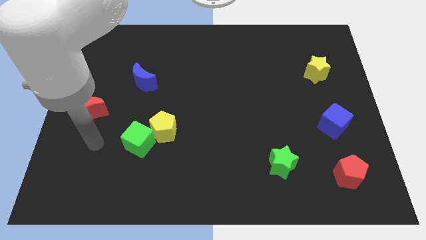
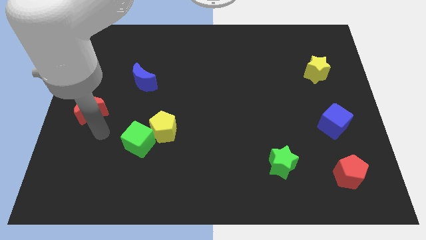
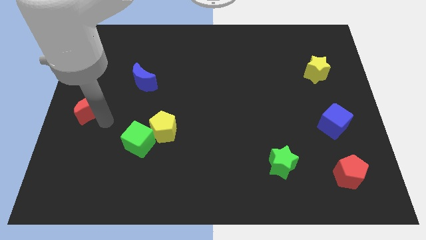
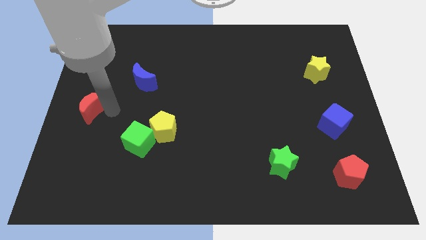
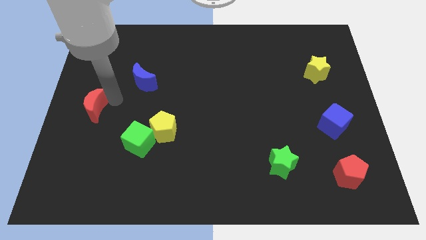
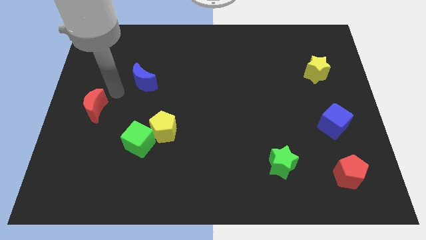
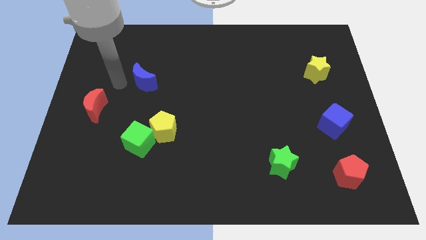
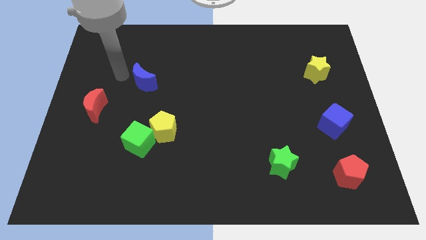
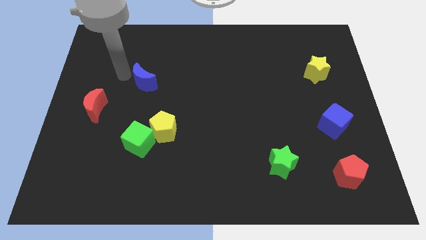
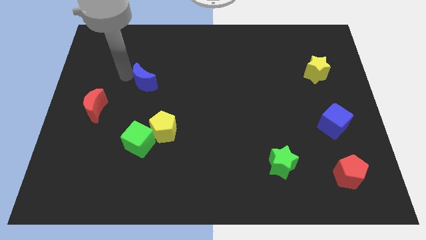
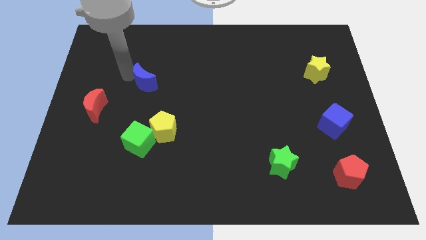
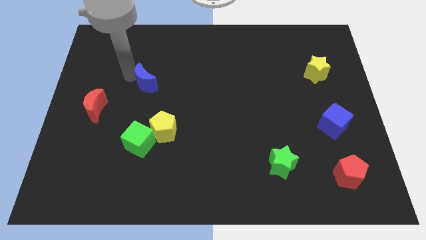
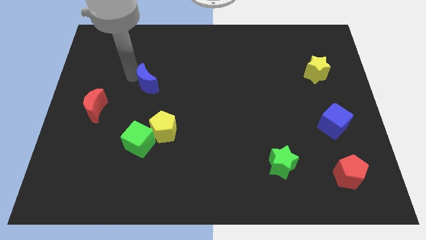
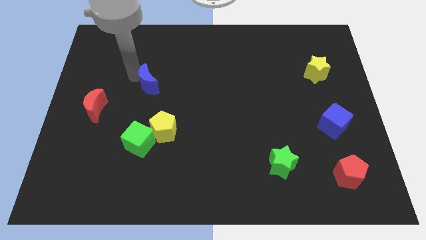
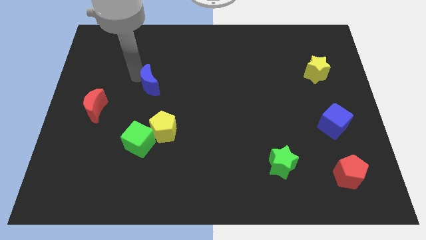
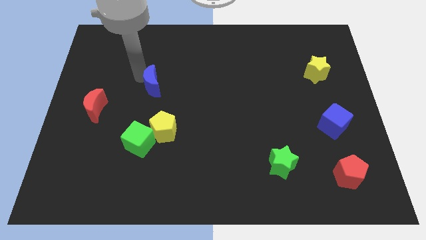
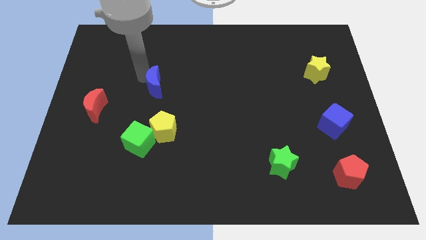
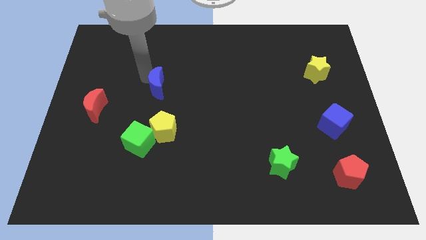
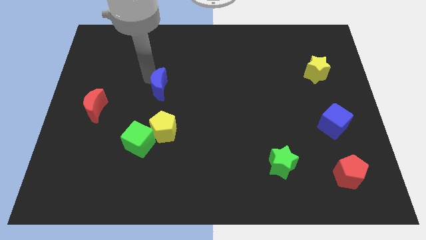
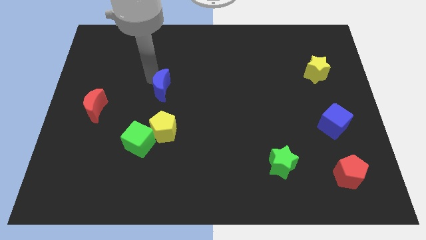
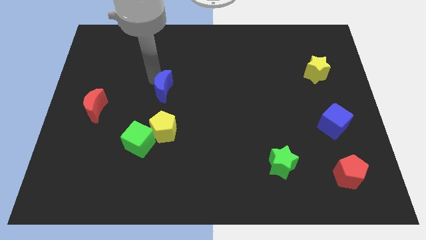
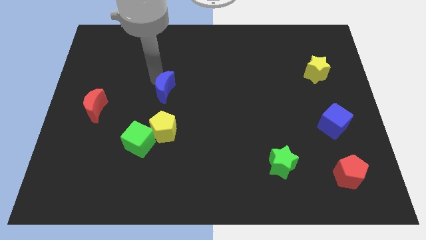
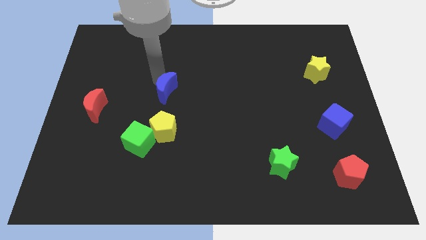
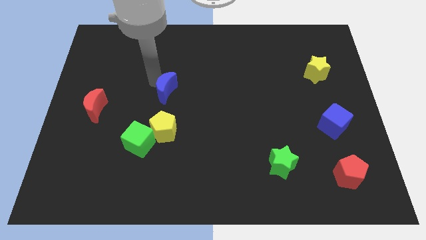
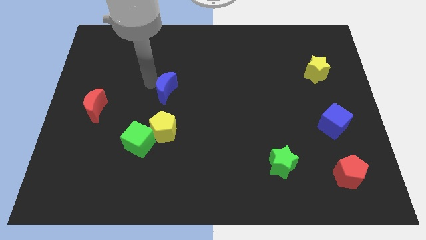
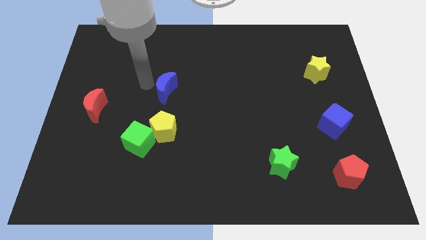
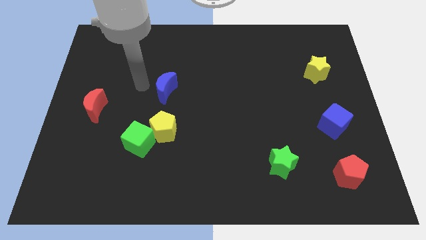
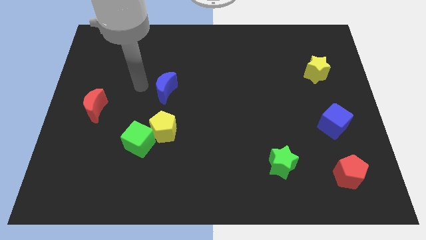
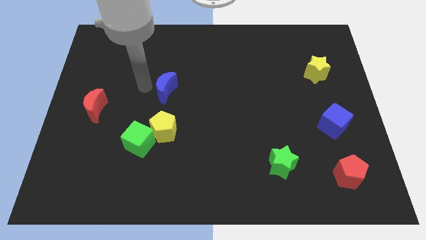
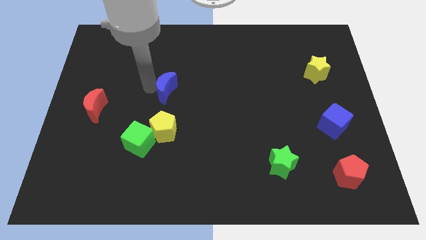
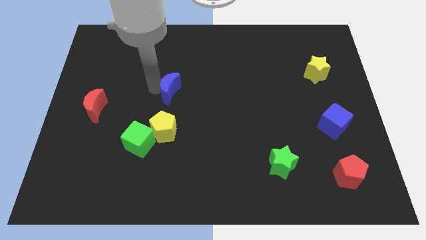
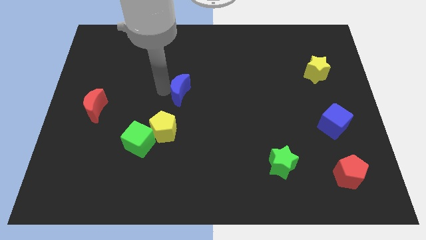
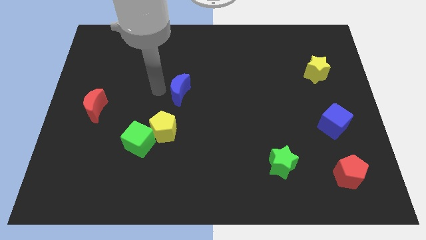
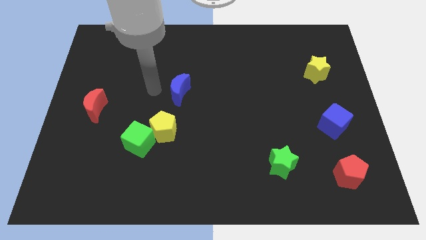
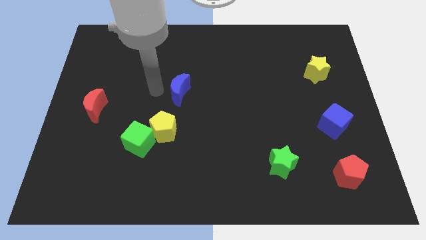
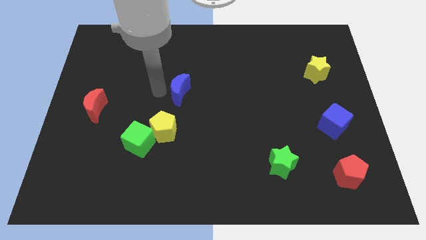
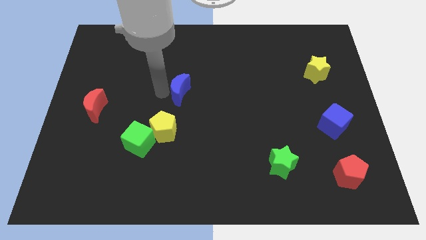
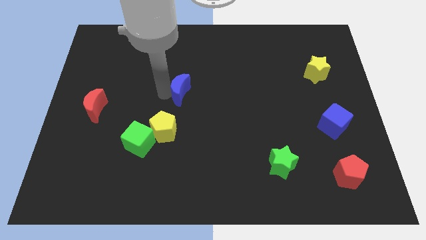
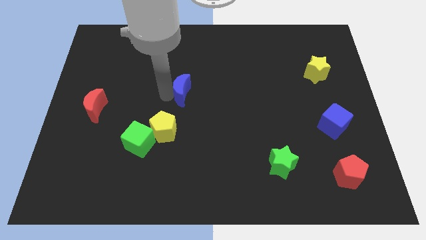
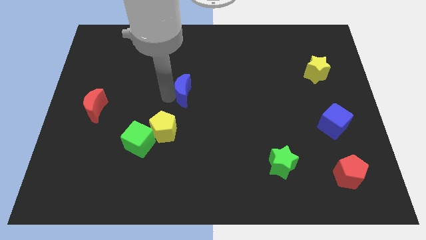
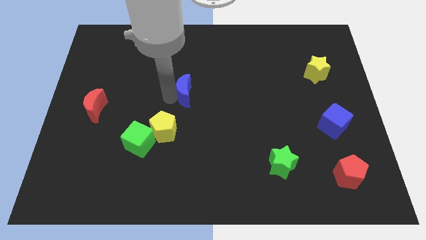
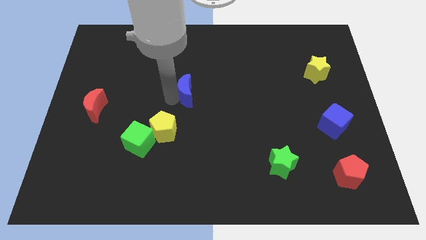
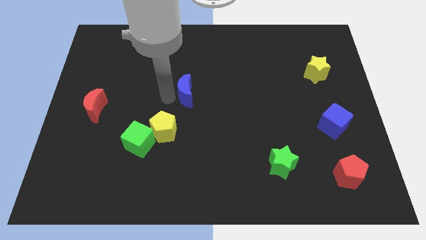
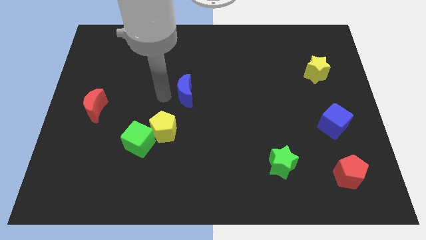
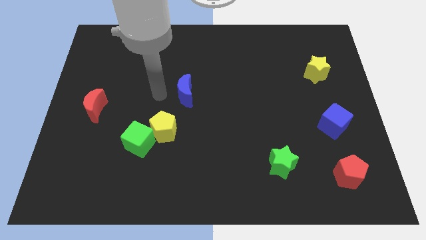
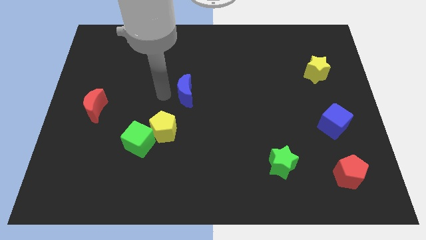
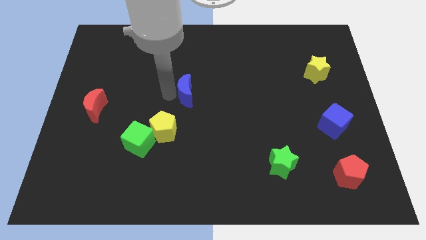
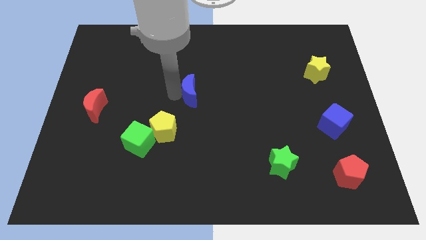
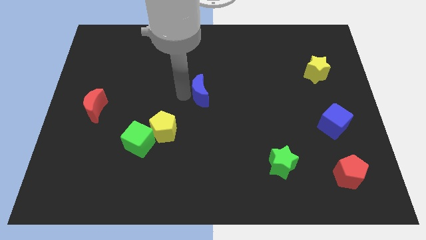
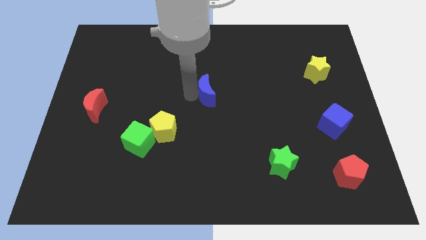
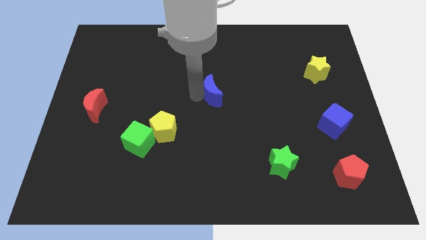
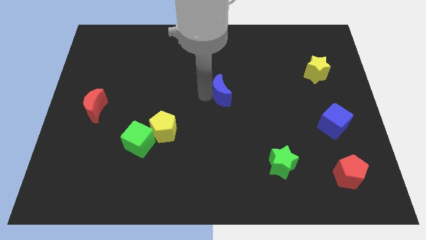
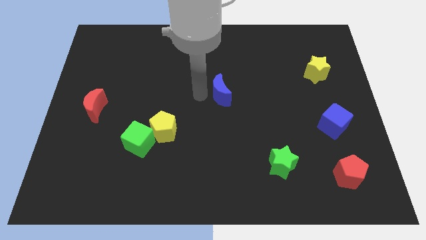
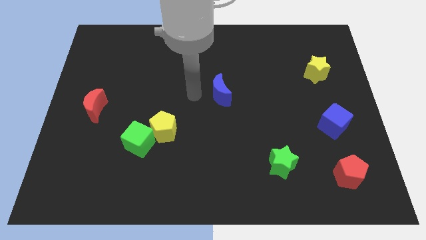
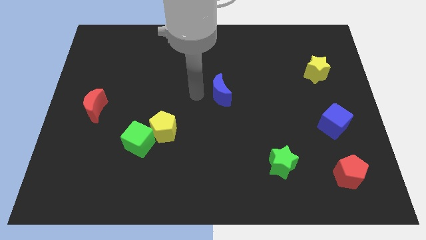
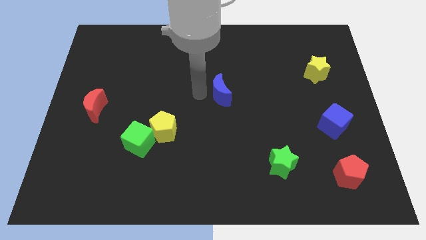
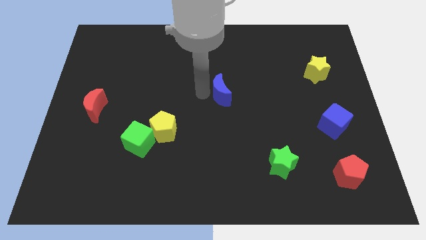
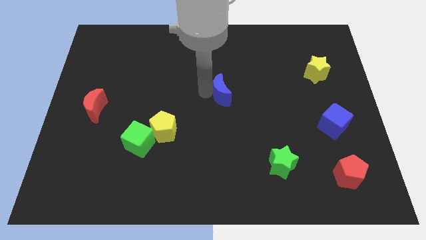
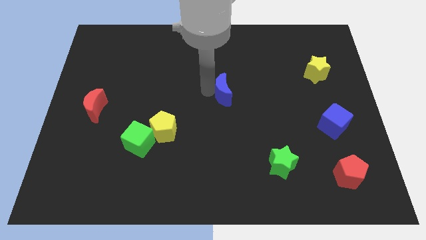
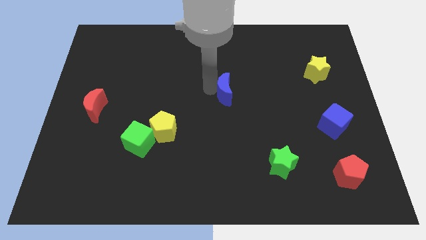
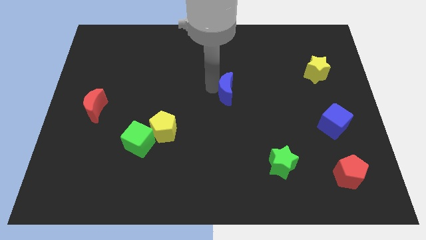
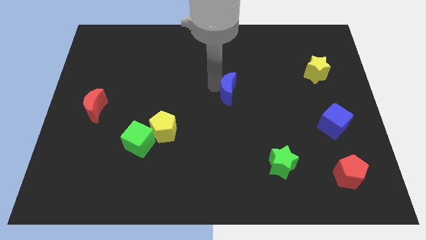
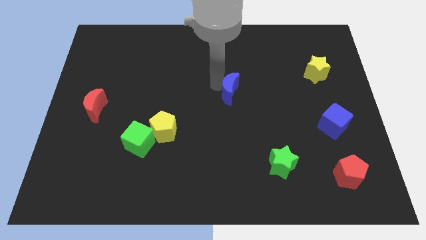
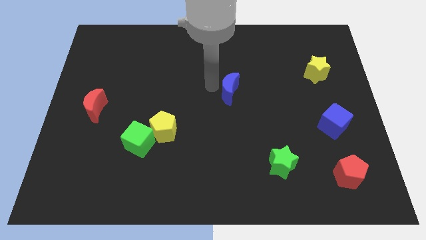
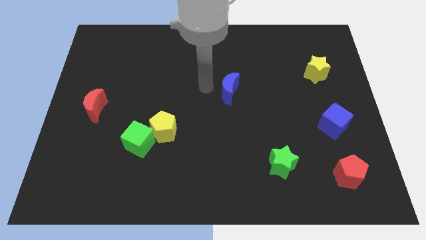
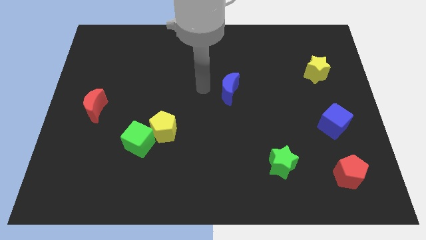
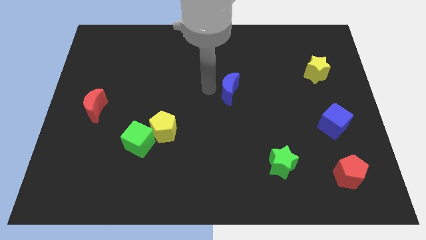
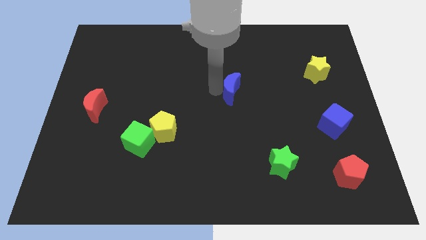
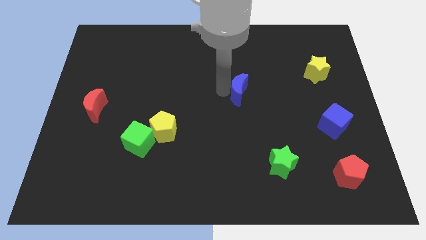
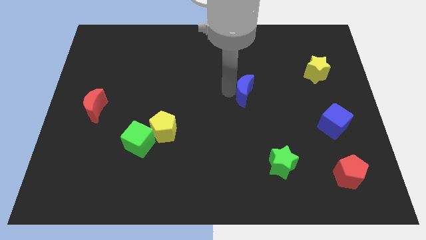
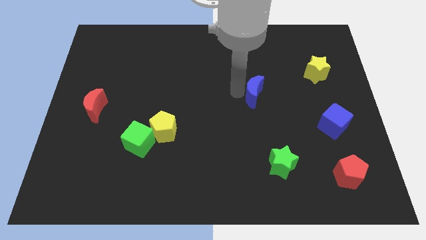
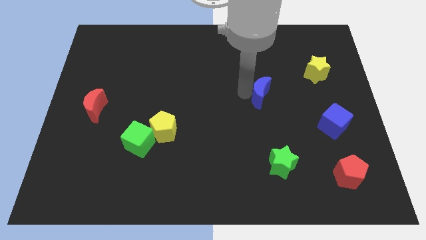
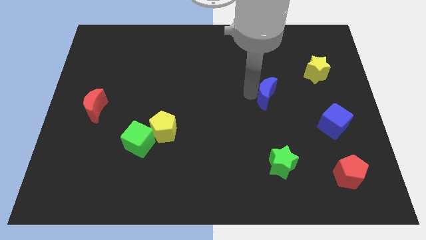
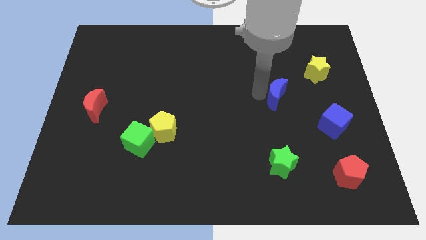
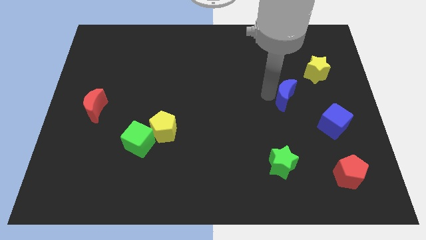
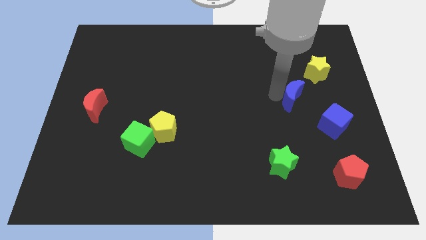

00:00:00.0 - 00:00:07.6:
move the blue moon to the top left of the blue cube
